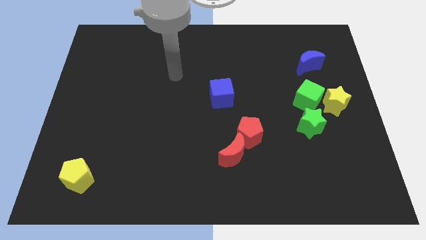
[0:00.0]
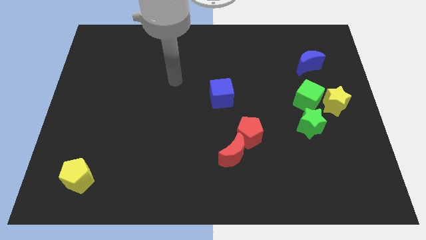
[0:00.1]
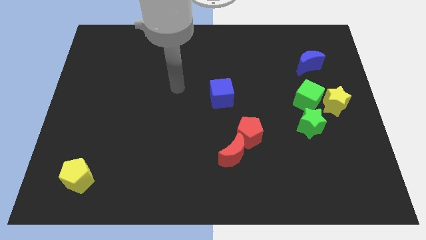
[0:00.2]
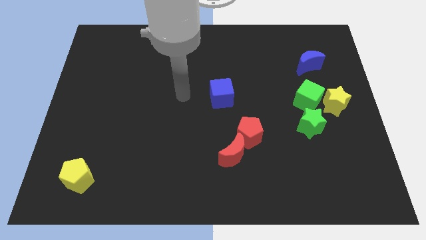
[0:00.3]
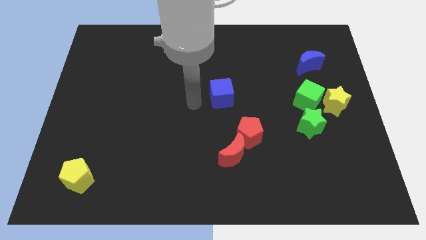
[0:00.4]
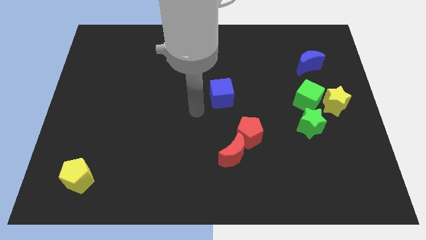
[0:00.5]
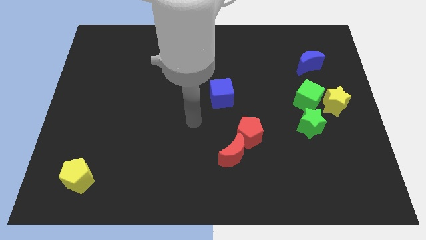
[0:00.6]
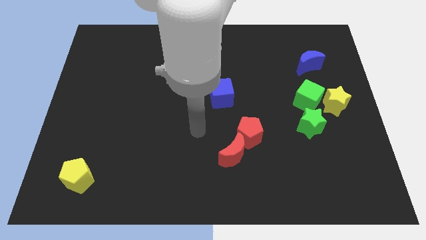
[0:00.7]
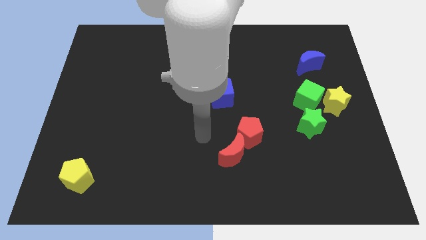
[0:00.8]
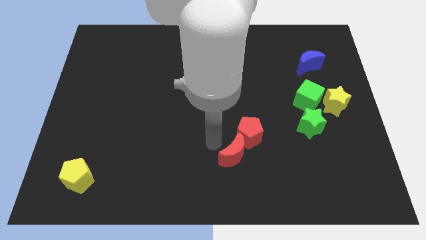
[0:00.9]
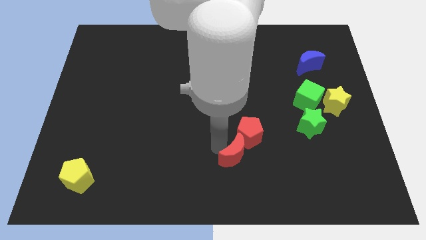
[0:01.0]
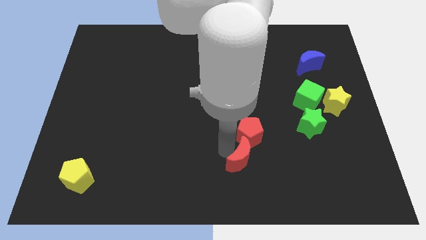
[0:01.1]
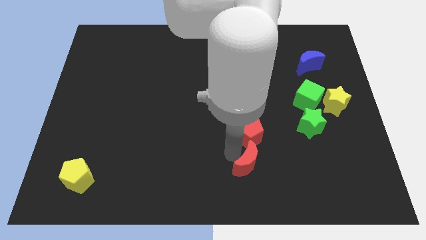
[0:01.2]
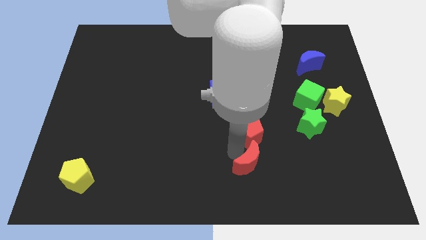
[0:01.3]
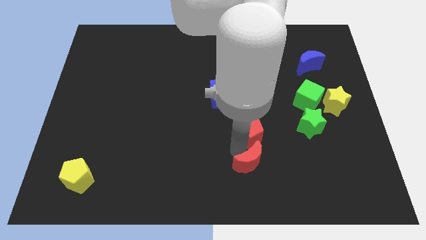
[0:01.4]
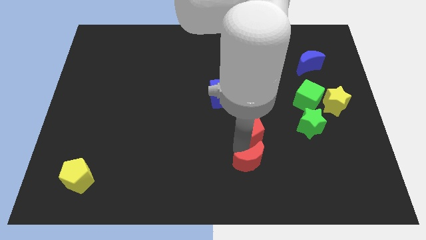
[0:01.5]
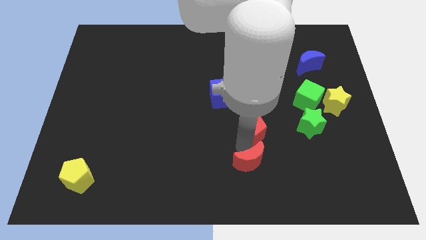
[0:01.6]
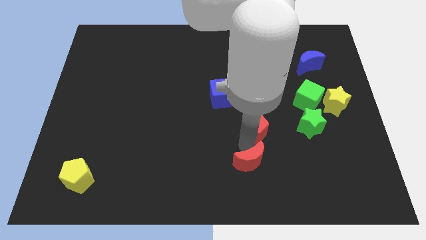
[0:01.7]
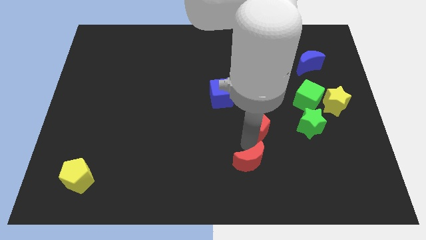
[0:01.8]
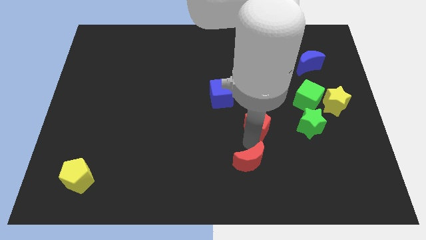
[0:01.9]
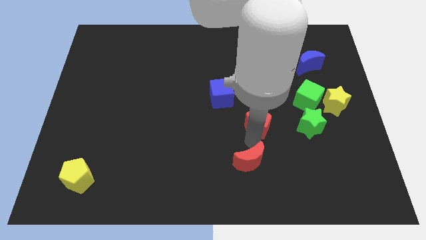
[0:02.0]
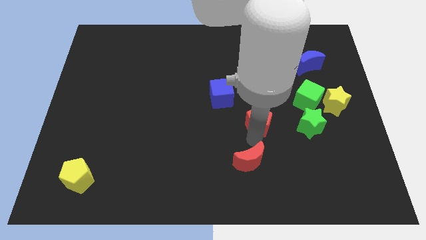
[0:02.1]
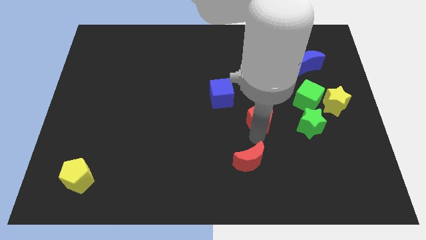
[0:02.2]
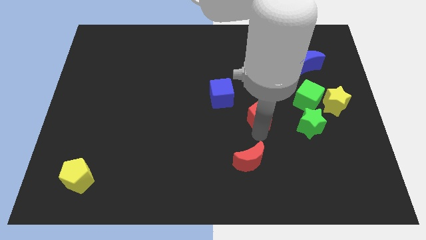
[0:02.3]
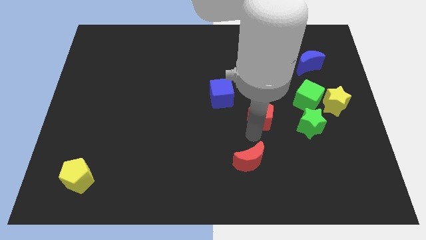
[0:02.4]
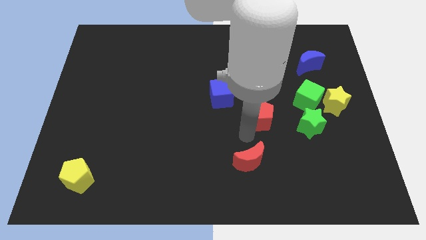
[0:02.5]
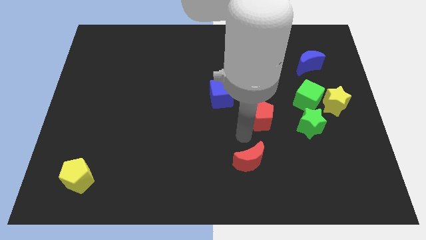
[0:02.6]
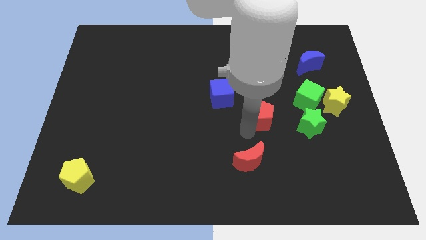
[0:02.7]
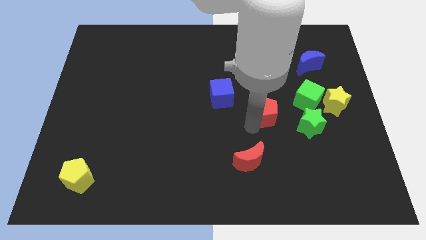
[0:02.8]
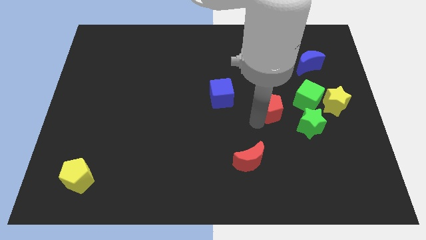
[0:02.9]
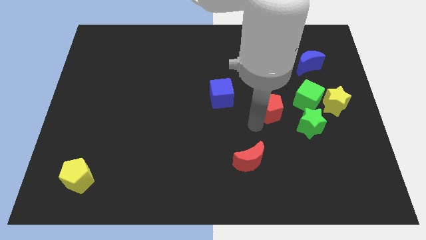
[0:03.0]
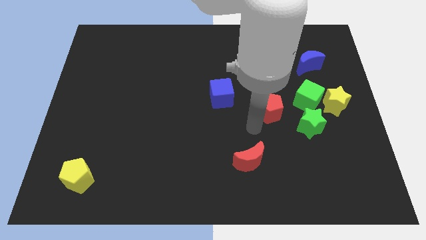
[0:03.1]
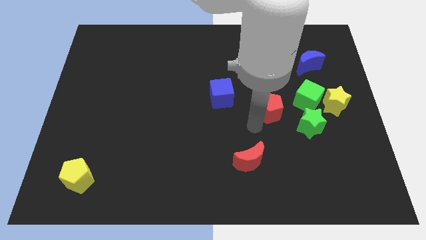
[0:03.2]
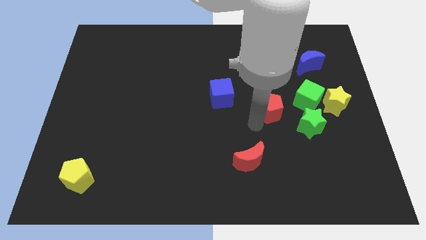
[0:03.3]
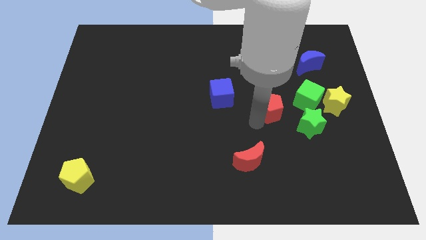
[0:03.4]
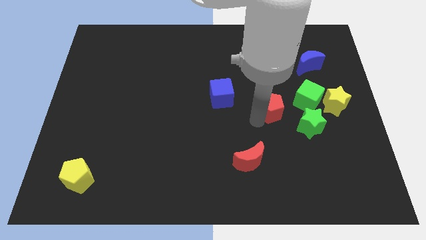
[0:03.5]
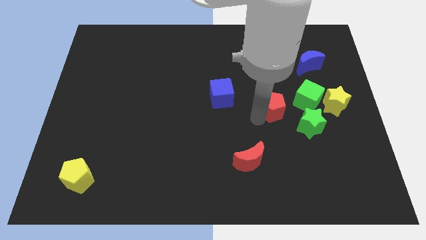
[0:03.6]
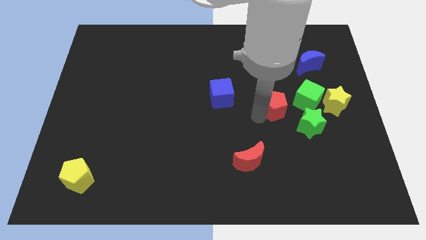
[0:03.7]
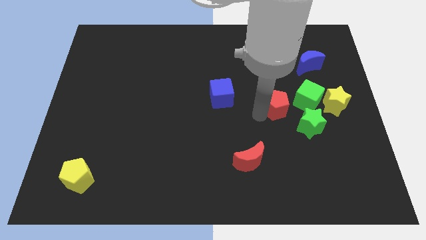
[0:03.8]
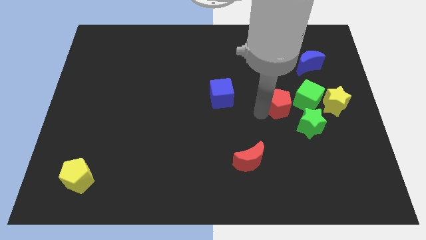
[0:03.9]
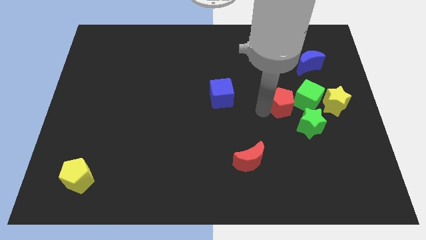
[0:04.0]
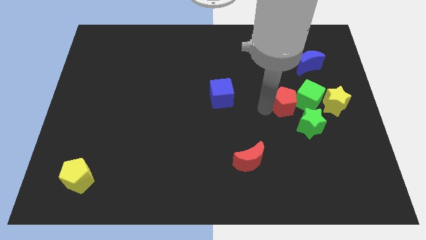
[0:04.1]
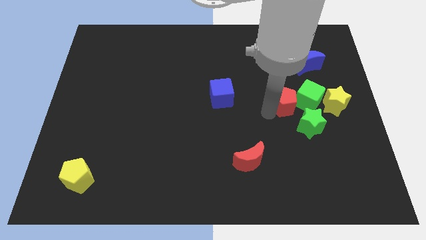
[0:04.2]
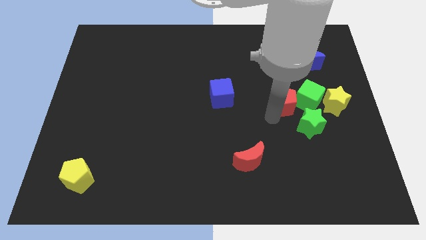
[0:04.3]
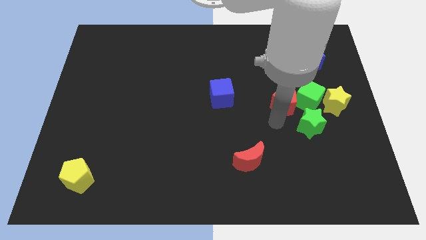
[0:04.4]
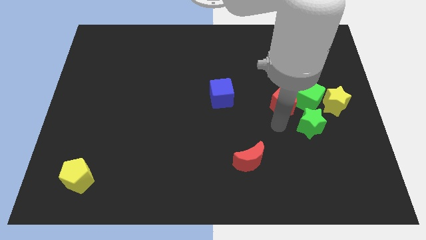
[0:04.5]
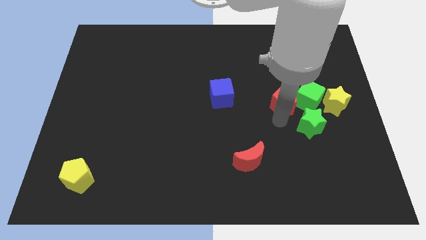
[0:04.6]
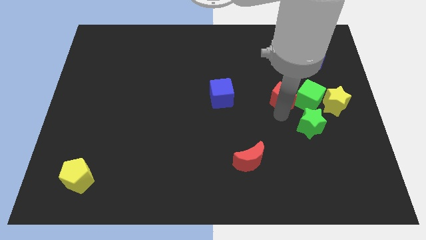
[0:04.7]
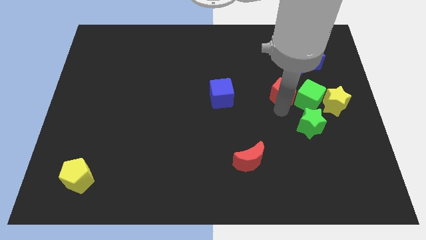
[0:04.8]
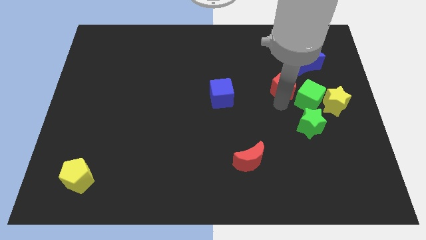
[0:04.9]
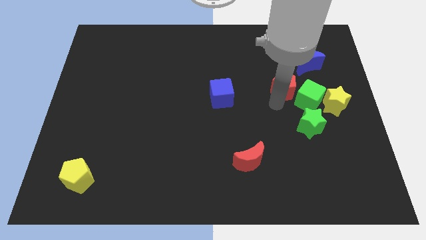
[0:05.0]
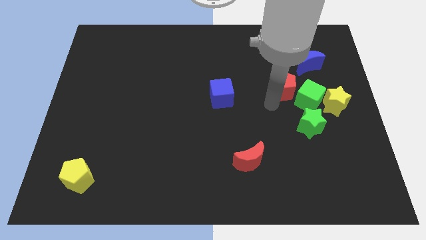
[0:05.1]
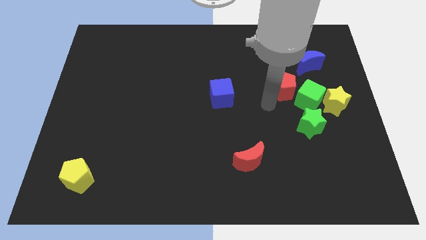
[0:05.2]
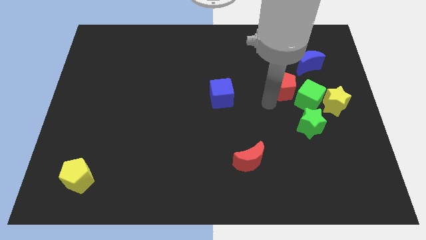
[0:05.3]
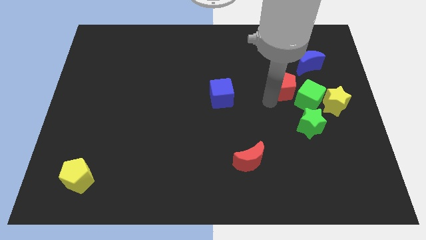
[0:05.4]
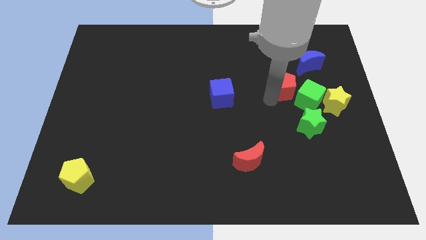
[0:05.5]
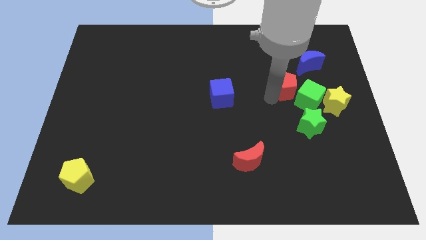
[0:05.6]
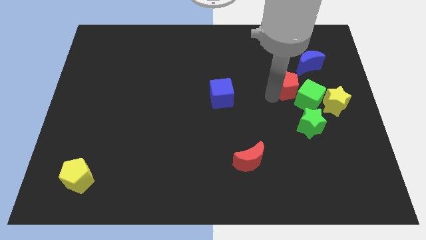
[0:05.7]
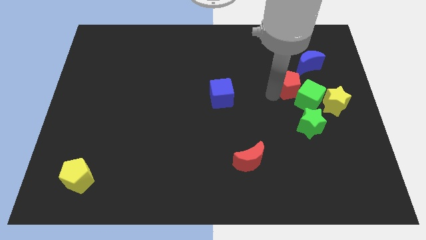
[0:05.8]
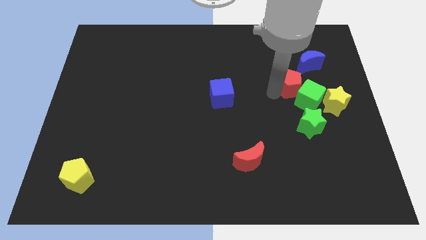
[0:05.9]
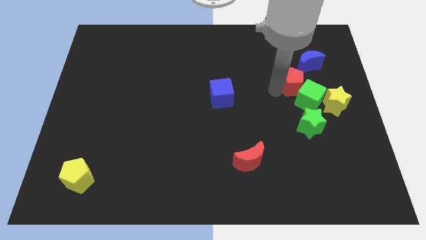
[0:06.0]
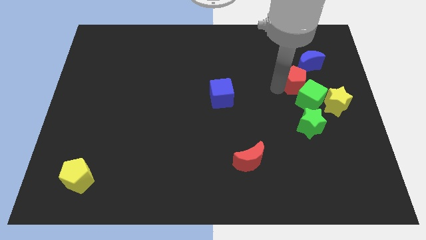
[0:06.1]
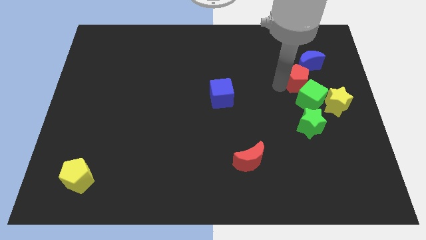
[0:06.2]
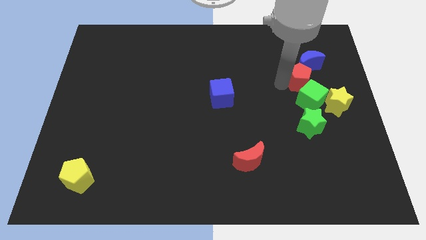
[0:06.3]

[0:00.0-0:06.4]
push the red pentagon towards the blue moon
